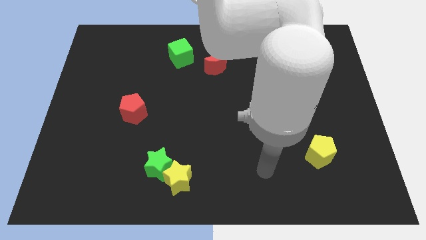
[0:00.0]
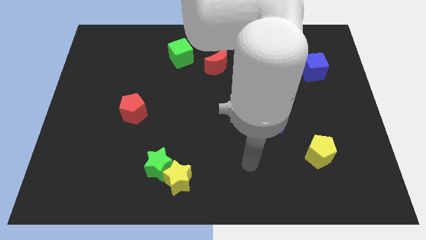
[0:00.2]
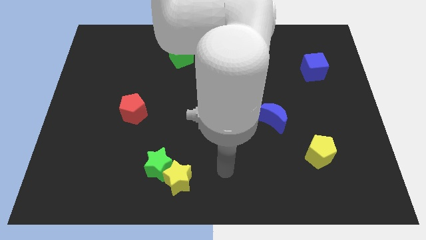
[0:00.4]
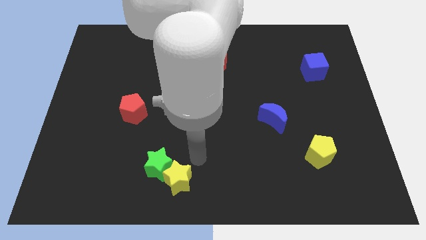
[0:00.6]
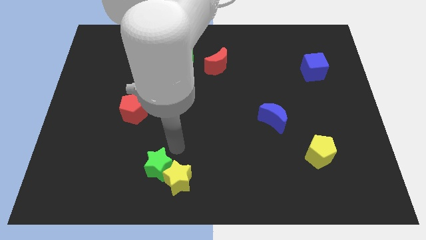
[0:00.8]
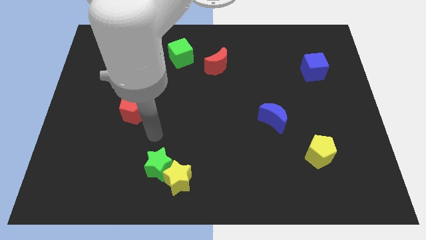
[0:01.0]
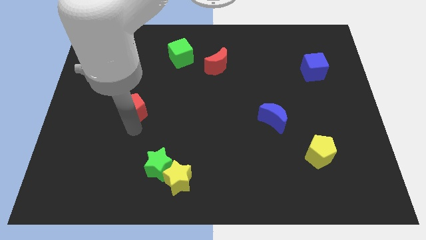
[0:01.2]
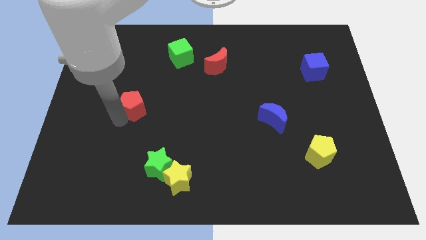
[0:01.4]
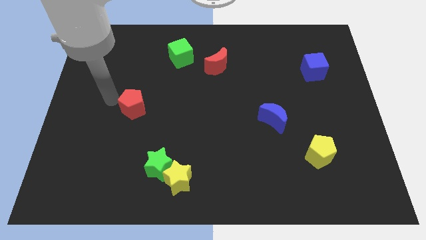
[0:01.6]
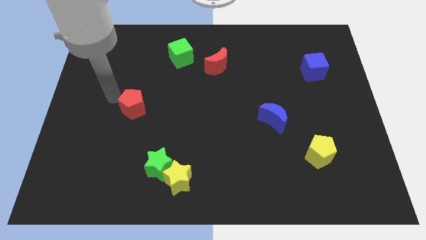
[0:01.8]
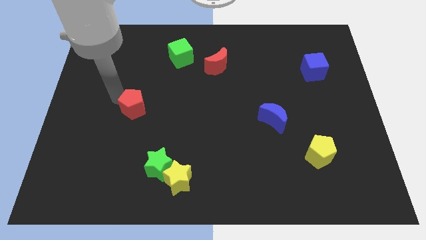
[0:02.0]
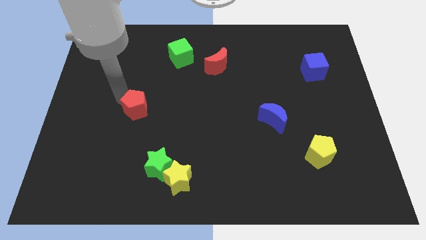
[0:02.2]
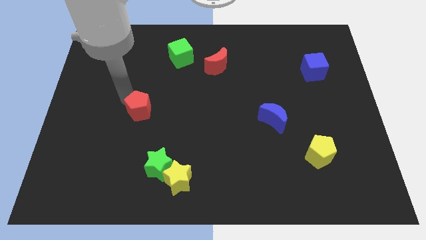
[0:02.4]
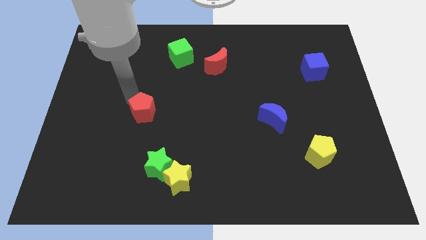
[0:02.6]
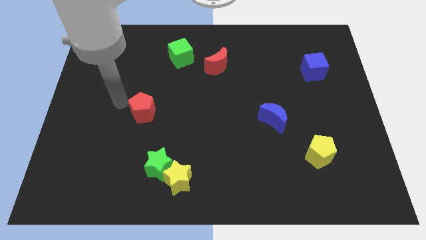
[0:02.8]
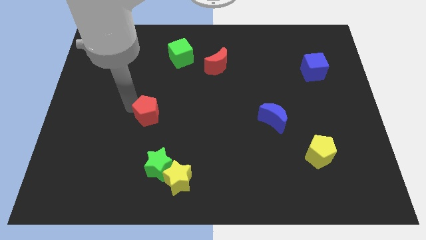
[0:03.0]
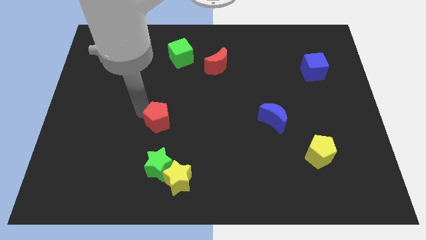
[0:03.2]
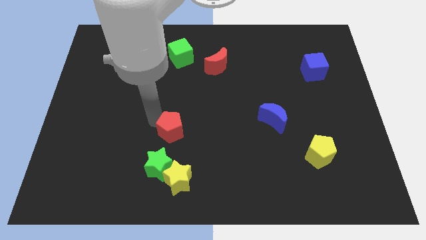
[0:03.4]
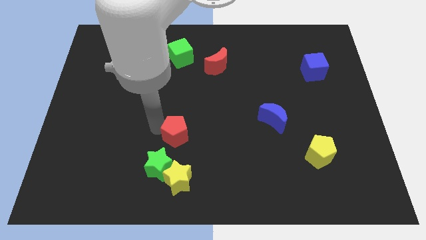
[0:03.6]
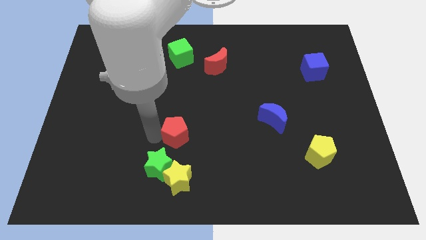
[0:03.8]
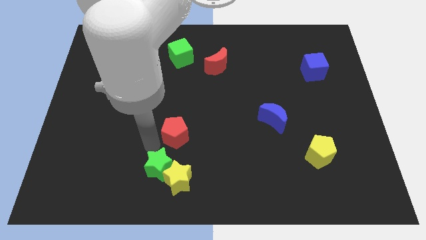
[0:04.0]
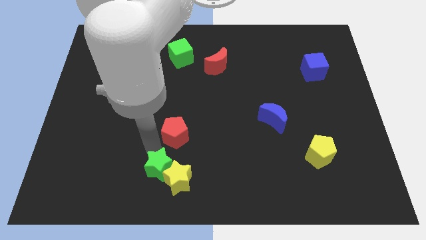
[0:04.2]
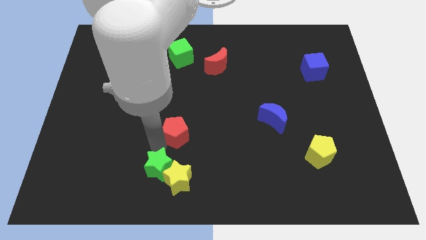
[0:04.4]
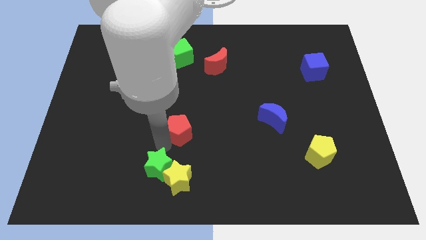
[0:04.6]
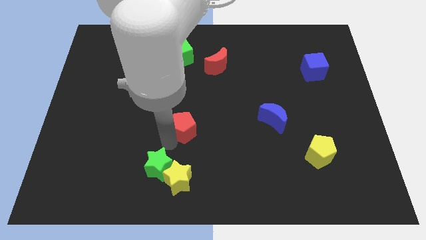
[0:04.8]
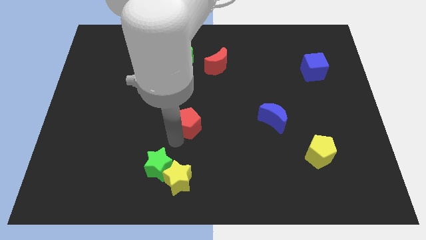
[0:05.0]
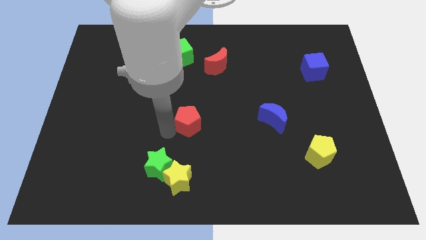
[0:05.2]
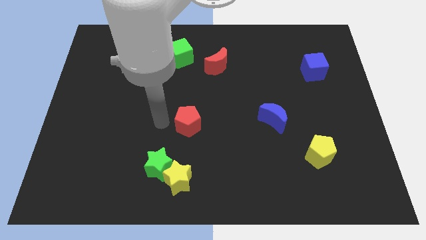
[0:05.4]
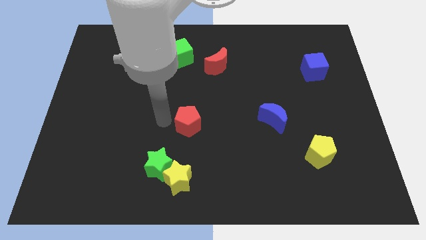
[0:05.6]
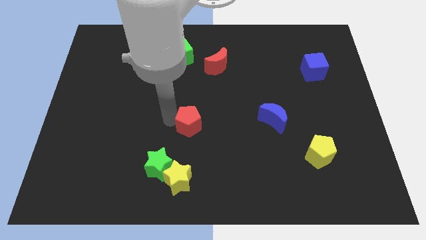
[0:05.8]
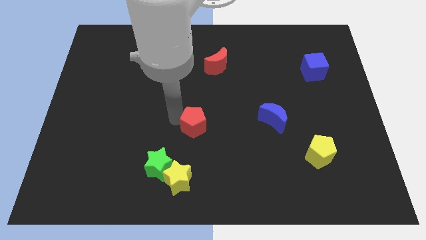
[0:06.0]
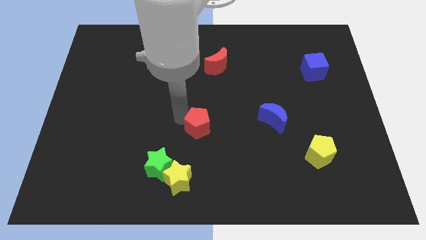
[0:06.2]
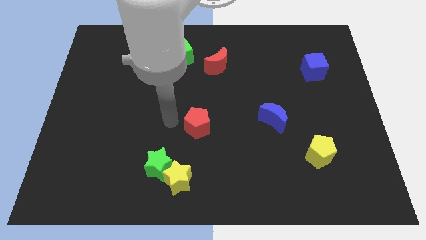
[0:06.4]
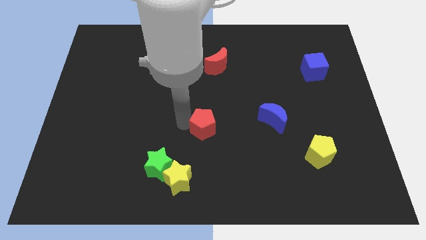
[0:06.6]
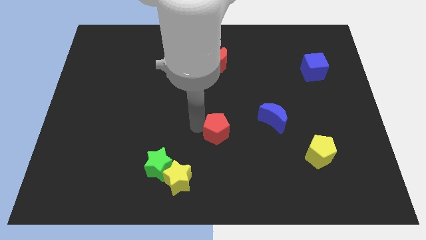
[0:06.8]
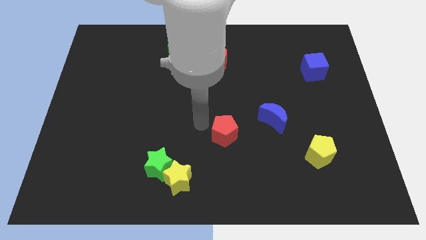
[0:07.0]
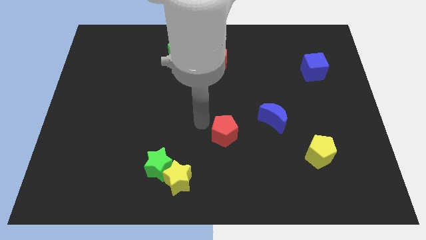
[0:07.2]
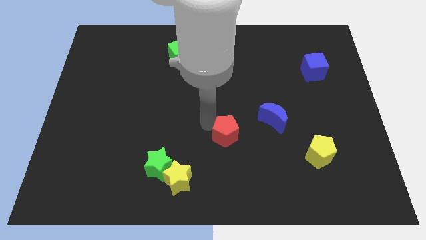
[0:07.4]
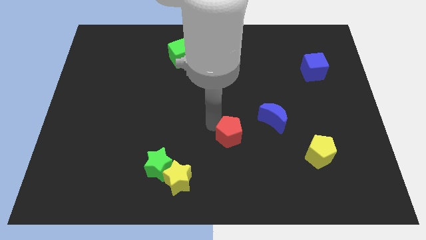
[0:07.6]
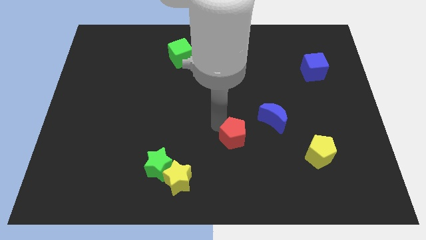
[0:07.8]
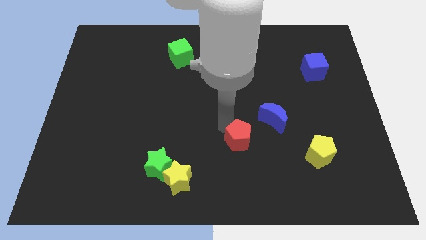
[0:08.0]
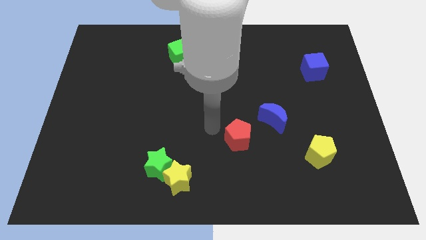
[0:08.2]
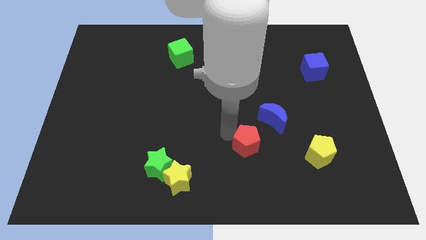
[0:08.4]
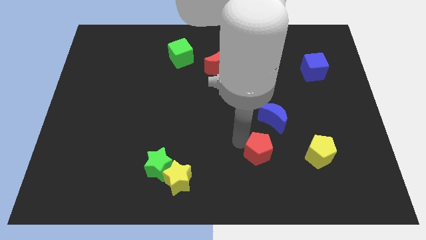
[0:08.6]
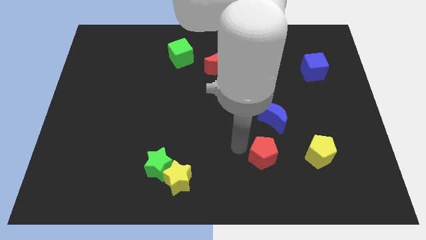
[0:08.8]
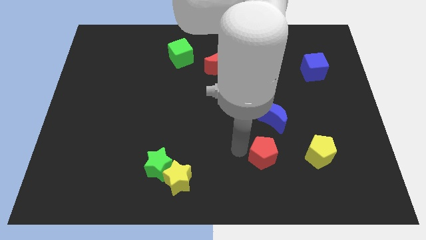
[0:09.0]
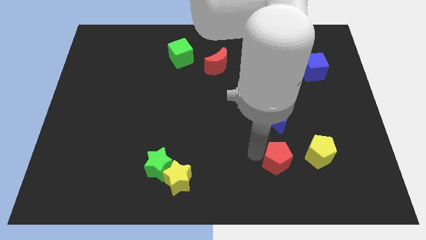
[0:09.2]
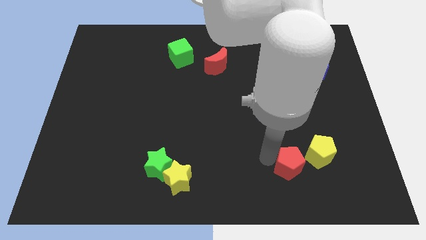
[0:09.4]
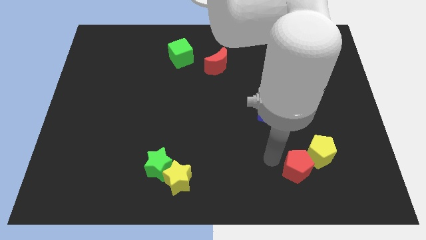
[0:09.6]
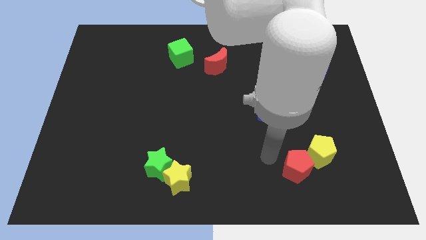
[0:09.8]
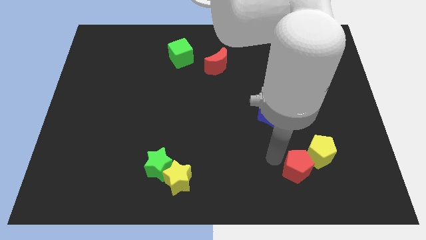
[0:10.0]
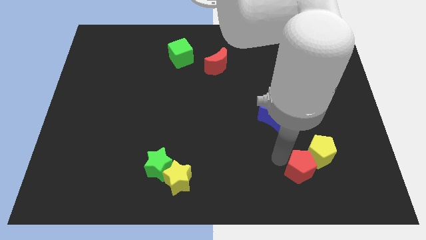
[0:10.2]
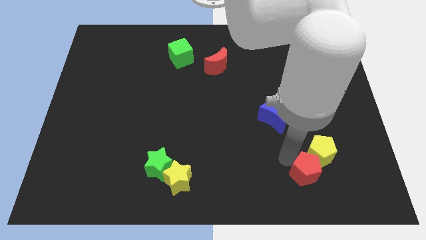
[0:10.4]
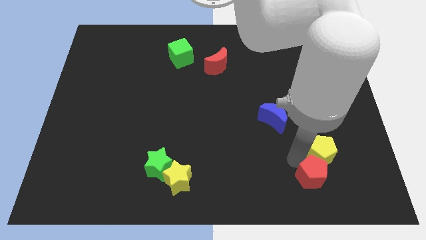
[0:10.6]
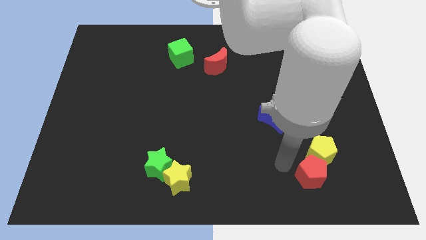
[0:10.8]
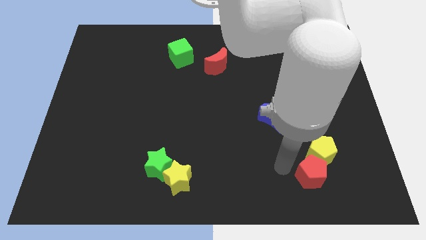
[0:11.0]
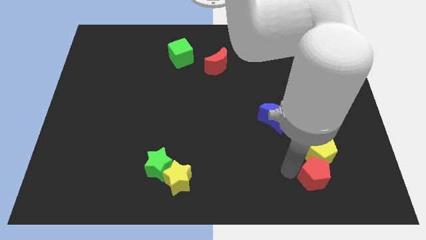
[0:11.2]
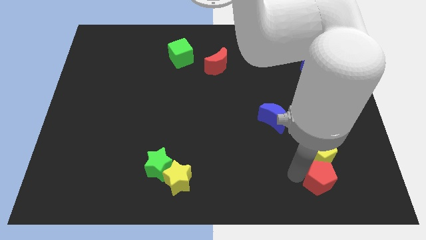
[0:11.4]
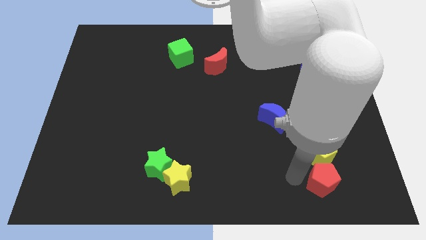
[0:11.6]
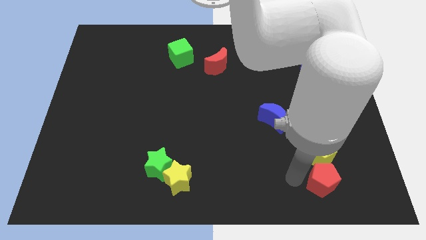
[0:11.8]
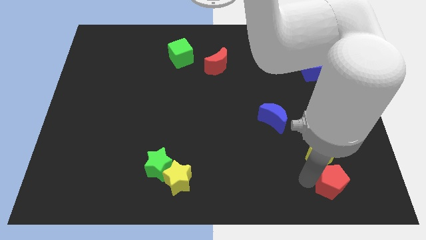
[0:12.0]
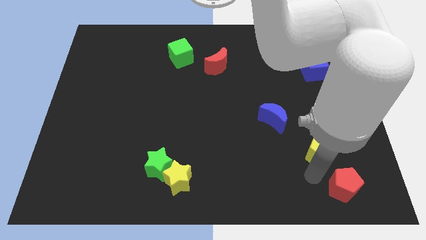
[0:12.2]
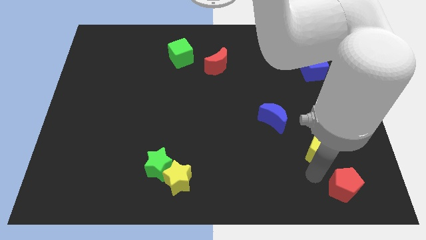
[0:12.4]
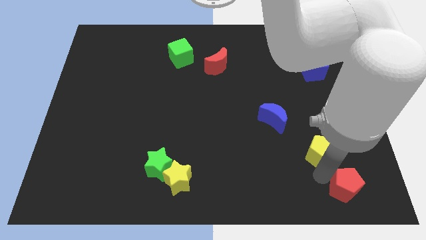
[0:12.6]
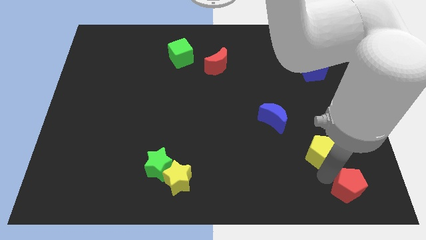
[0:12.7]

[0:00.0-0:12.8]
slide the red pentagon to the bottom right corner
